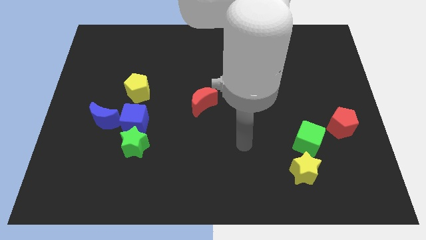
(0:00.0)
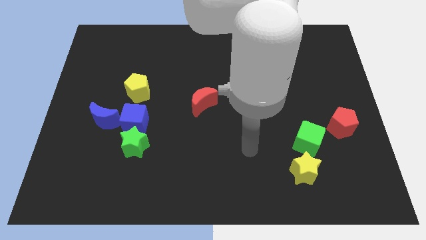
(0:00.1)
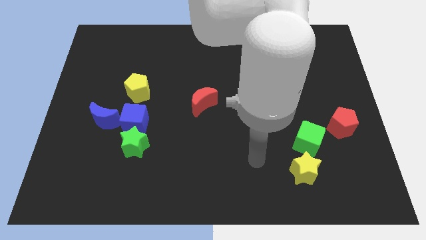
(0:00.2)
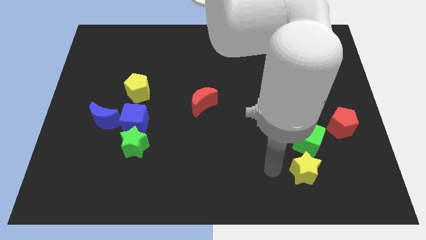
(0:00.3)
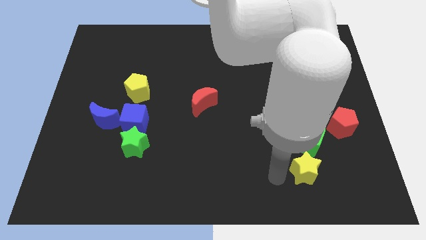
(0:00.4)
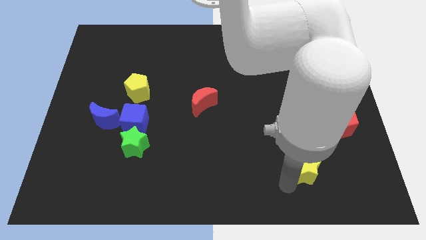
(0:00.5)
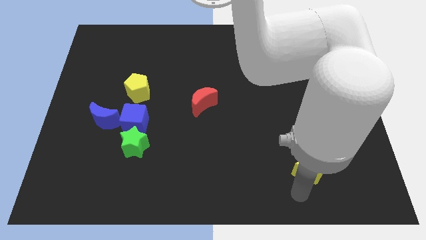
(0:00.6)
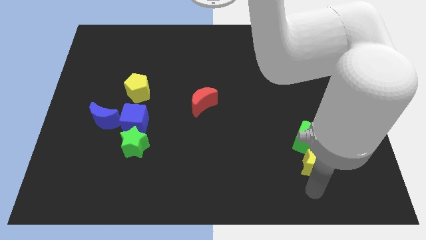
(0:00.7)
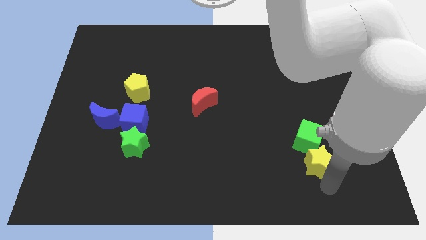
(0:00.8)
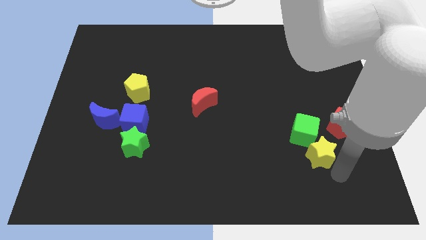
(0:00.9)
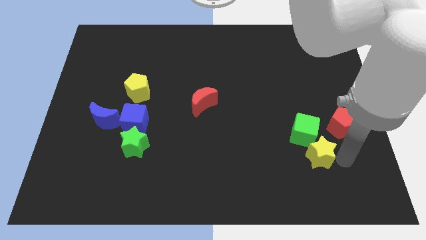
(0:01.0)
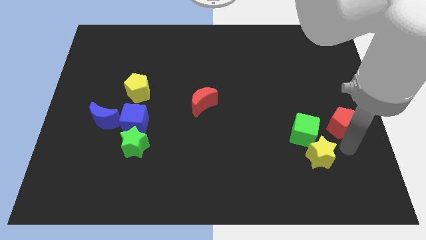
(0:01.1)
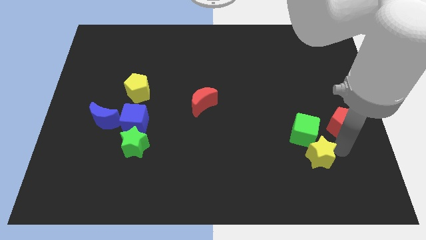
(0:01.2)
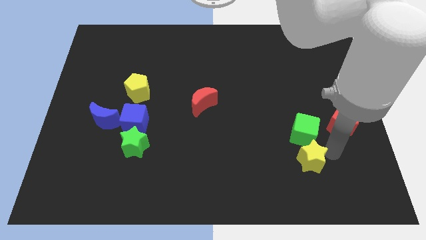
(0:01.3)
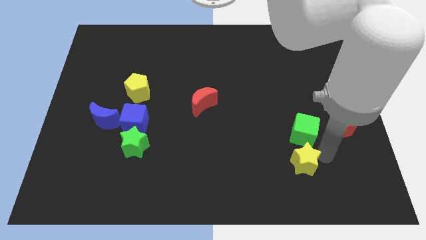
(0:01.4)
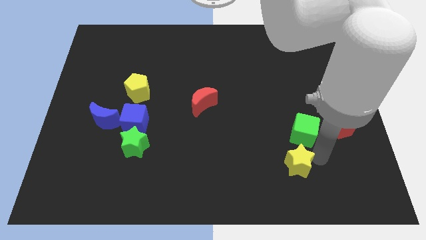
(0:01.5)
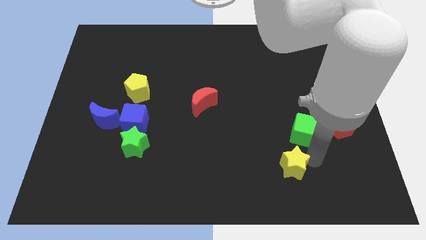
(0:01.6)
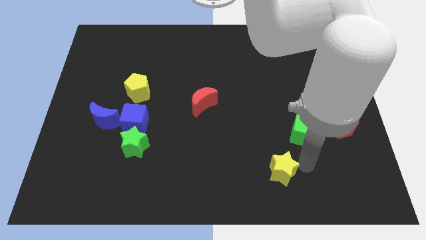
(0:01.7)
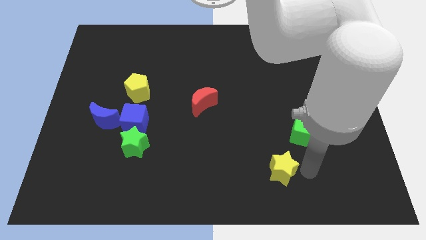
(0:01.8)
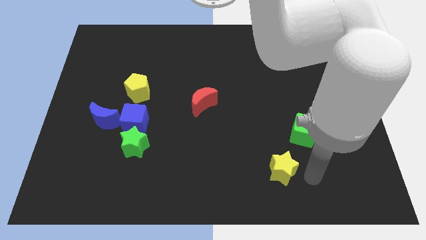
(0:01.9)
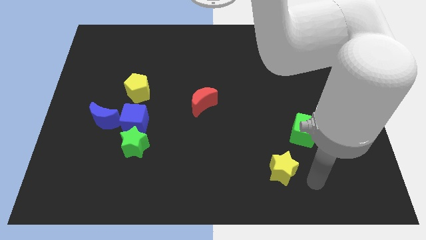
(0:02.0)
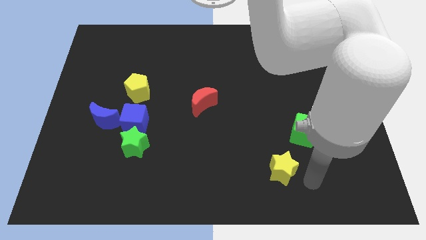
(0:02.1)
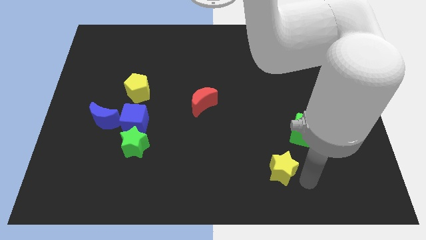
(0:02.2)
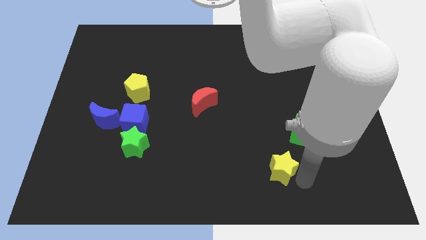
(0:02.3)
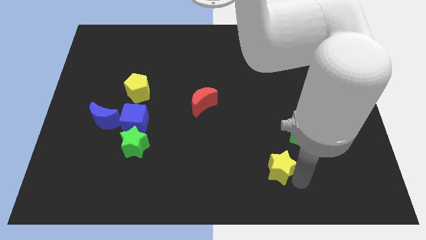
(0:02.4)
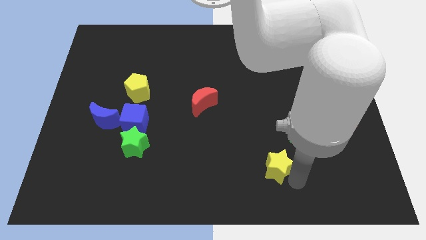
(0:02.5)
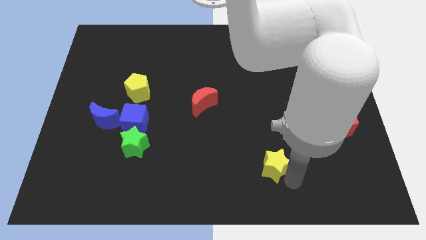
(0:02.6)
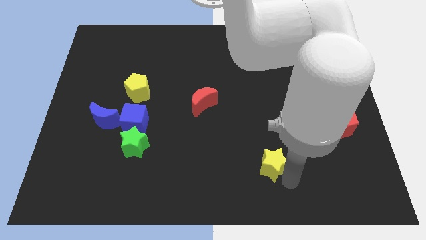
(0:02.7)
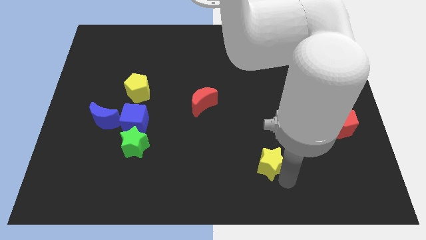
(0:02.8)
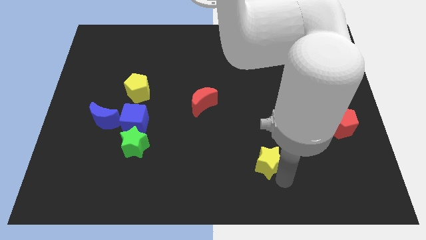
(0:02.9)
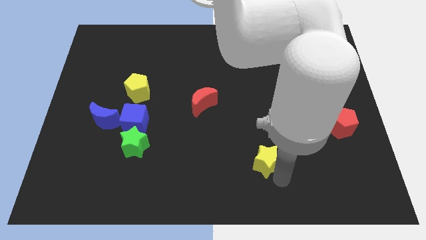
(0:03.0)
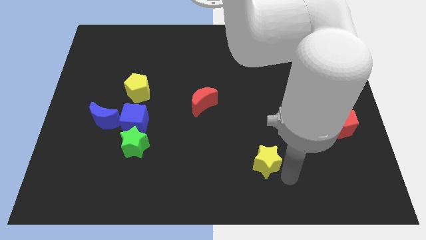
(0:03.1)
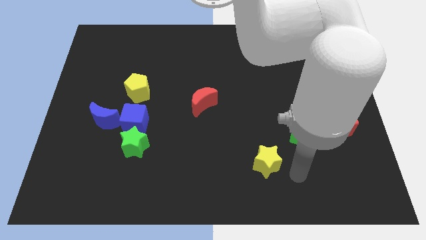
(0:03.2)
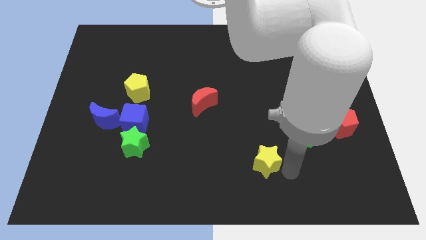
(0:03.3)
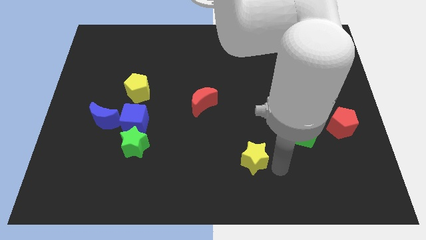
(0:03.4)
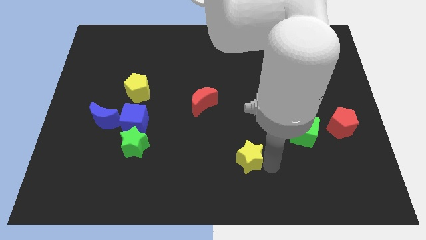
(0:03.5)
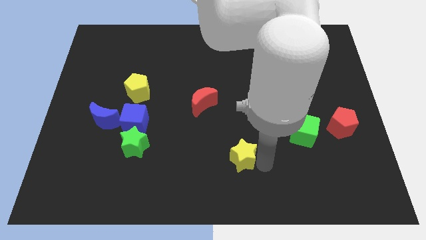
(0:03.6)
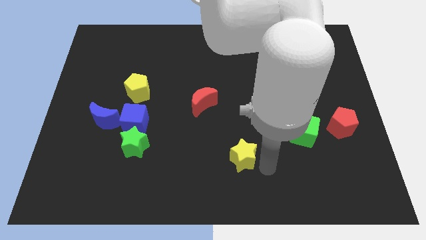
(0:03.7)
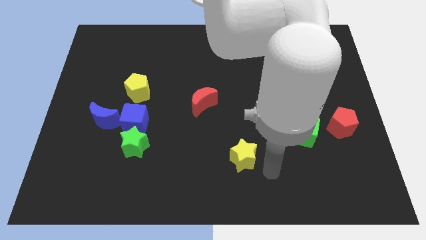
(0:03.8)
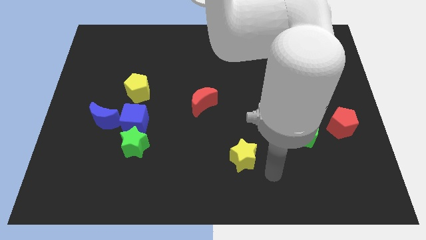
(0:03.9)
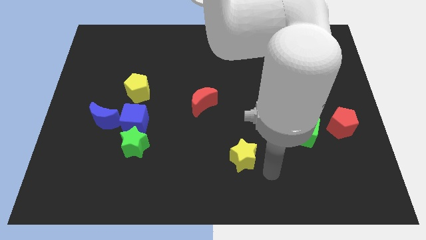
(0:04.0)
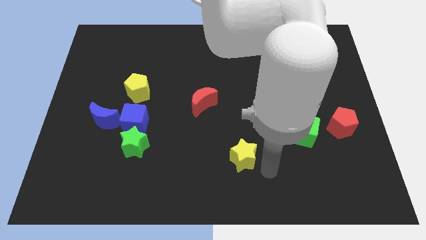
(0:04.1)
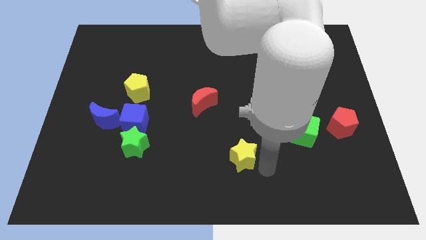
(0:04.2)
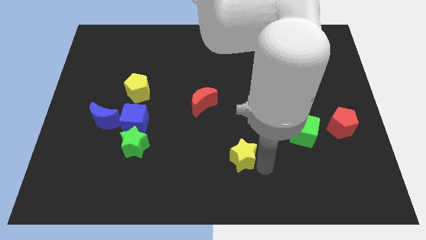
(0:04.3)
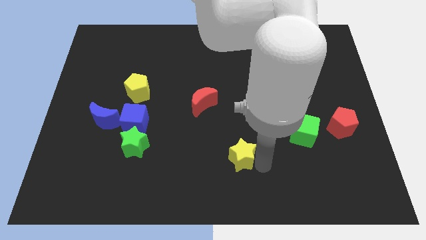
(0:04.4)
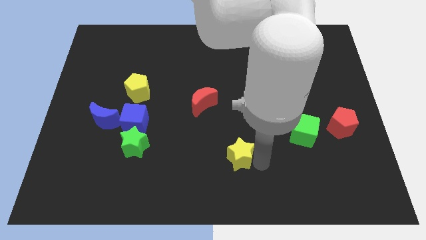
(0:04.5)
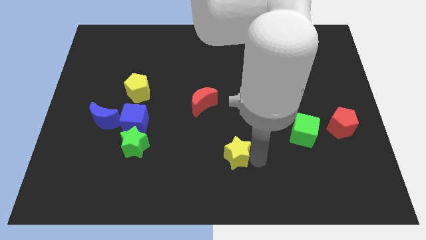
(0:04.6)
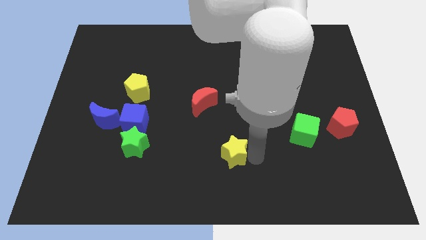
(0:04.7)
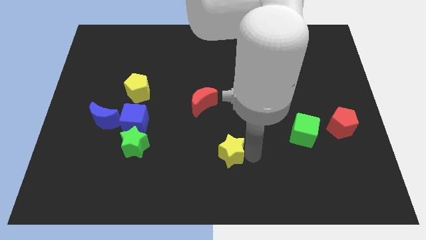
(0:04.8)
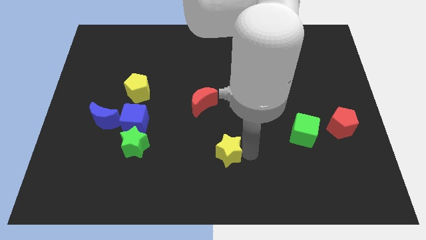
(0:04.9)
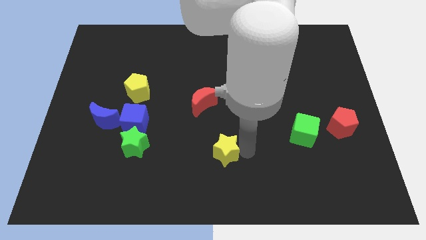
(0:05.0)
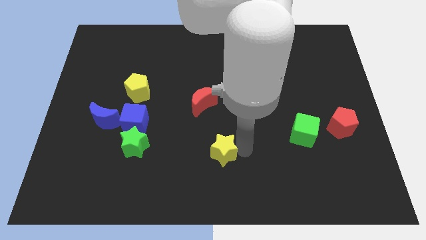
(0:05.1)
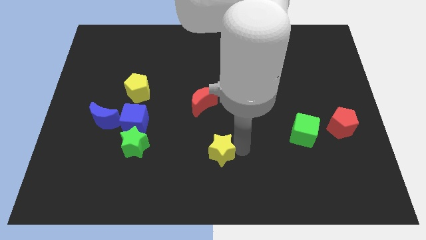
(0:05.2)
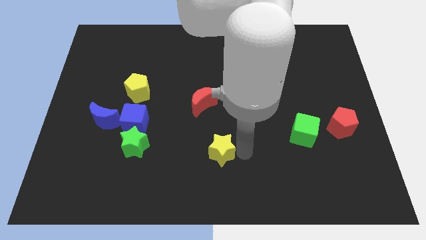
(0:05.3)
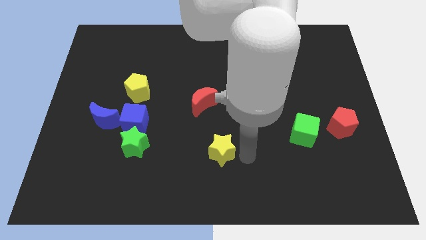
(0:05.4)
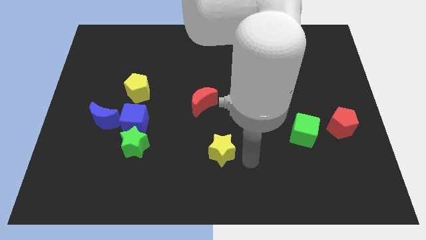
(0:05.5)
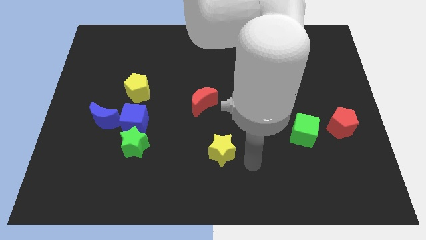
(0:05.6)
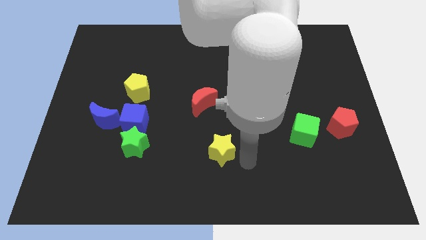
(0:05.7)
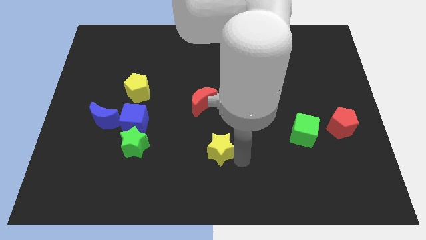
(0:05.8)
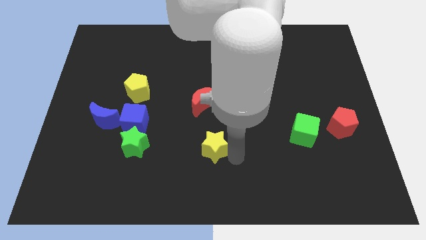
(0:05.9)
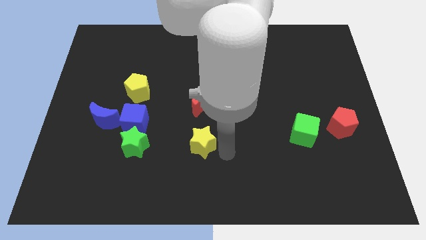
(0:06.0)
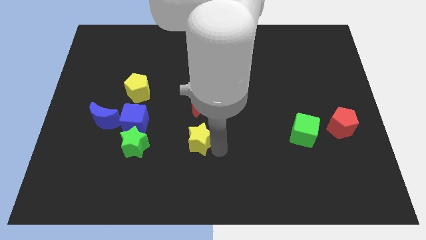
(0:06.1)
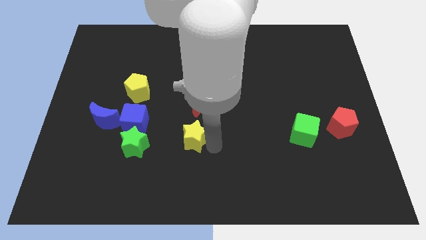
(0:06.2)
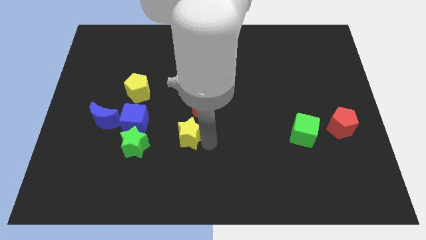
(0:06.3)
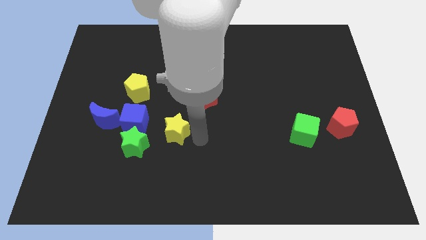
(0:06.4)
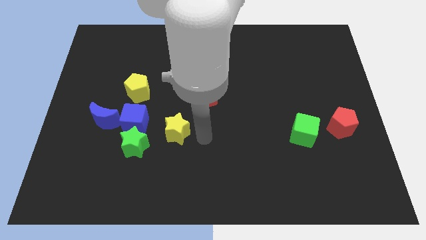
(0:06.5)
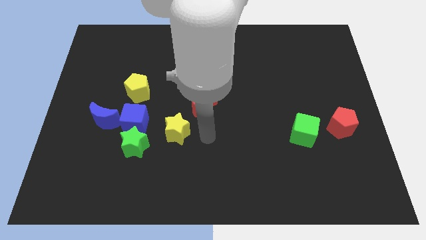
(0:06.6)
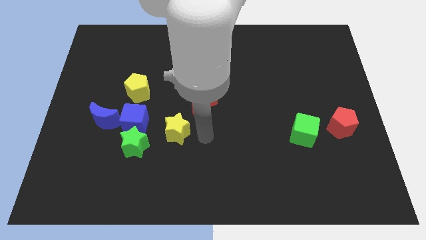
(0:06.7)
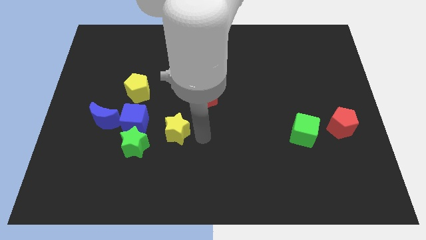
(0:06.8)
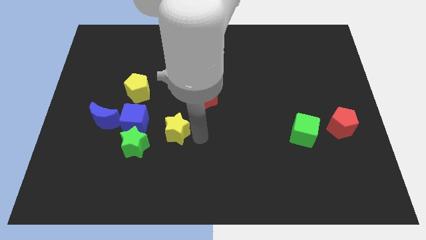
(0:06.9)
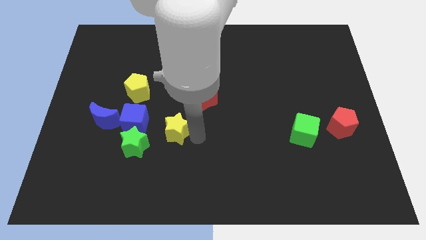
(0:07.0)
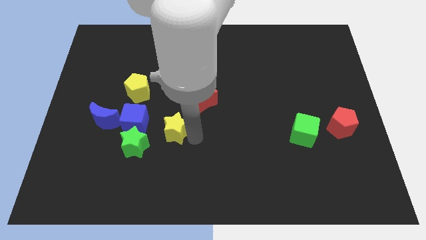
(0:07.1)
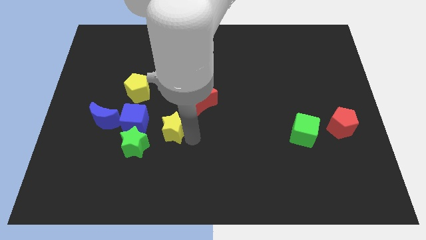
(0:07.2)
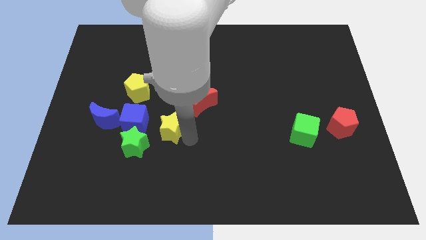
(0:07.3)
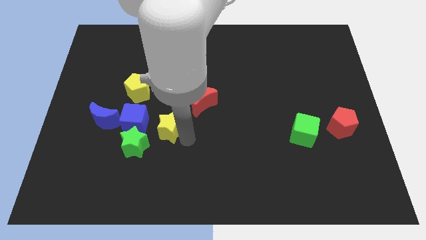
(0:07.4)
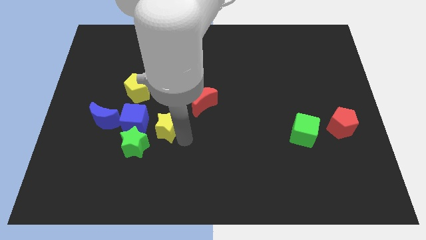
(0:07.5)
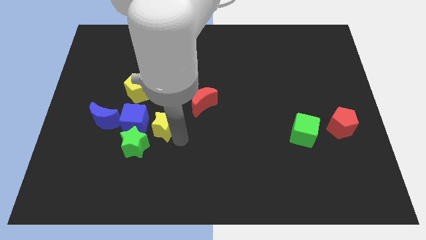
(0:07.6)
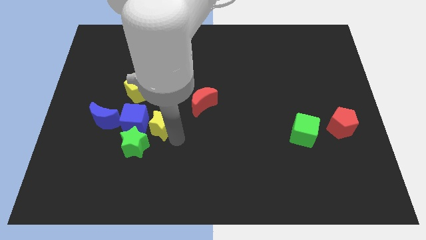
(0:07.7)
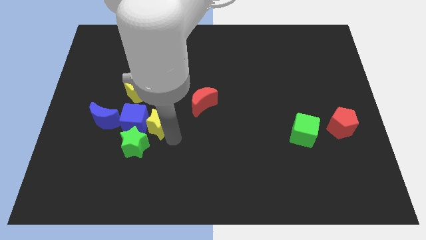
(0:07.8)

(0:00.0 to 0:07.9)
put the yellow star next to the blue cube
